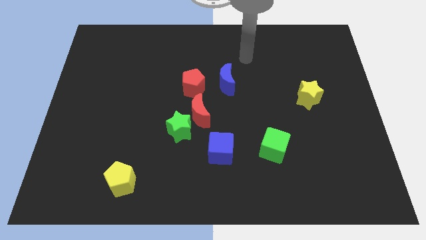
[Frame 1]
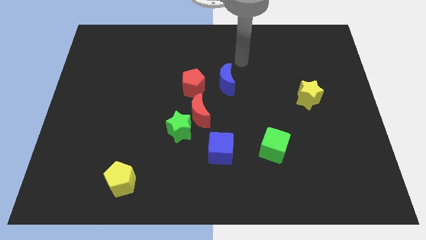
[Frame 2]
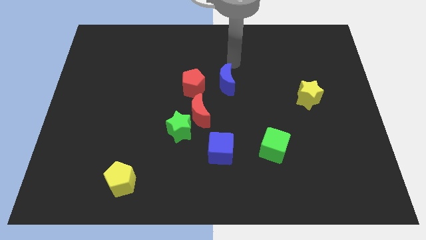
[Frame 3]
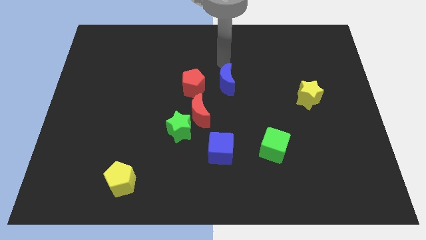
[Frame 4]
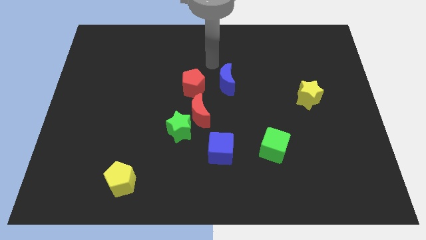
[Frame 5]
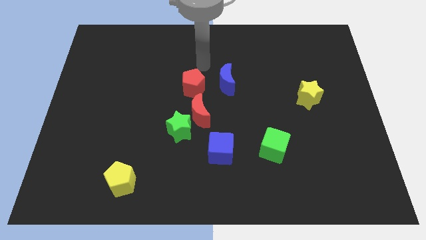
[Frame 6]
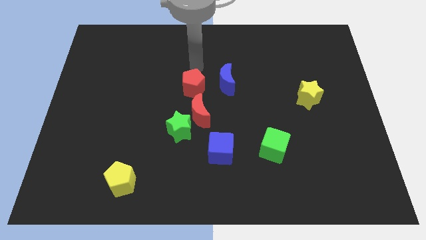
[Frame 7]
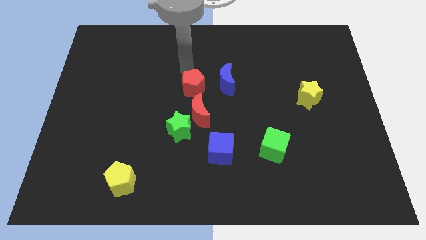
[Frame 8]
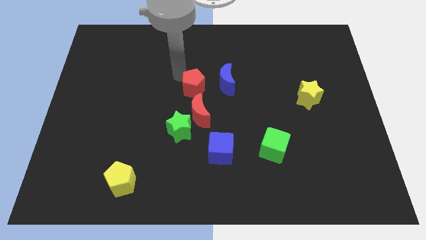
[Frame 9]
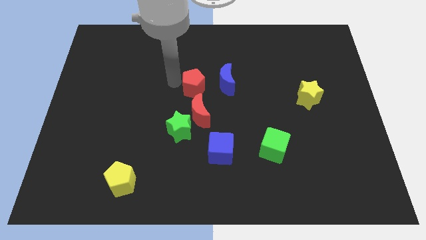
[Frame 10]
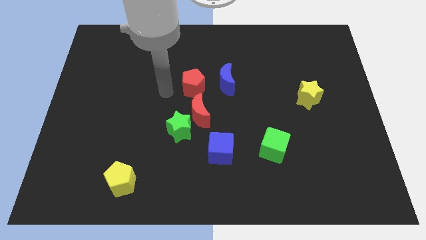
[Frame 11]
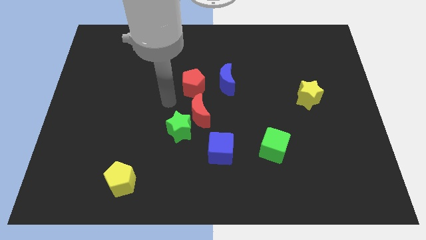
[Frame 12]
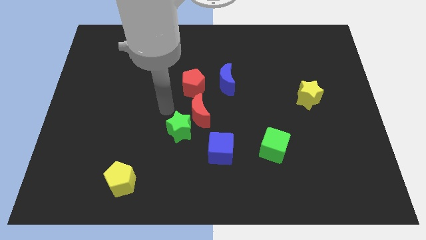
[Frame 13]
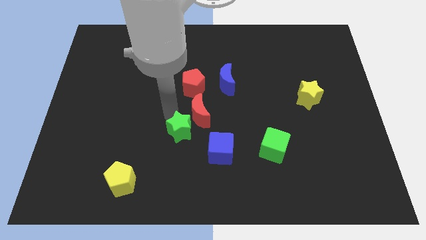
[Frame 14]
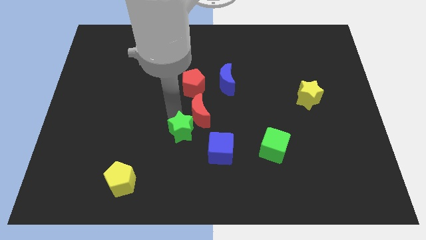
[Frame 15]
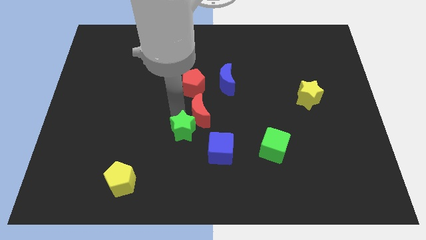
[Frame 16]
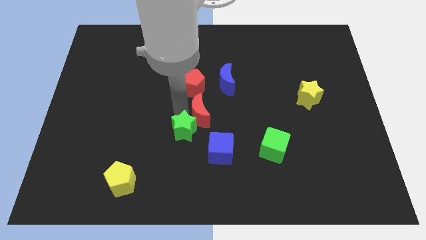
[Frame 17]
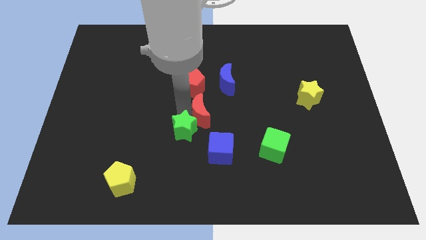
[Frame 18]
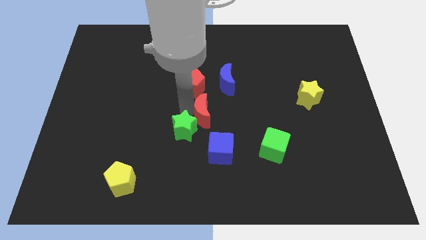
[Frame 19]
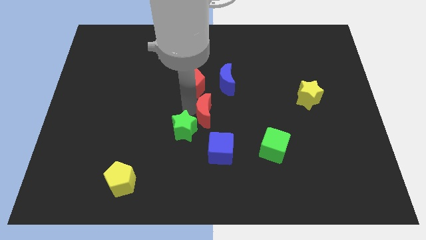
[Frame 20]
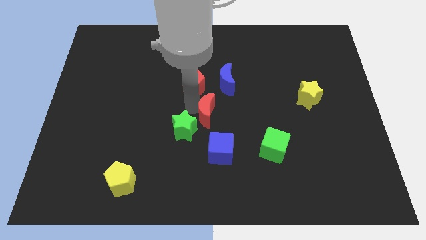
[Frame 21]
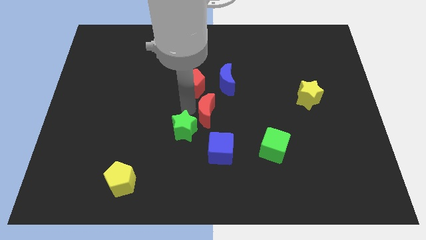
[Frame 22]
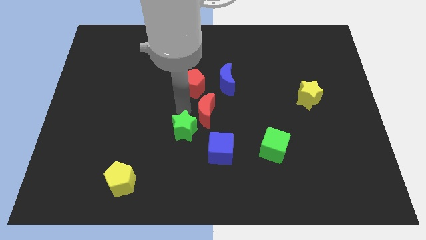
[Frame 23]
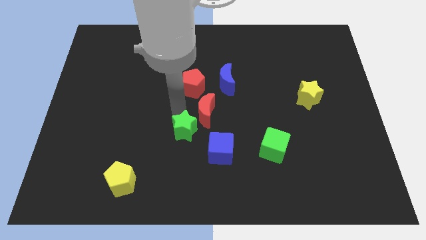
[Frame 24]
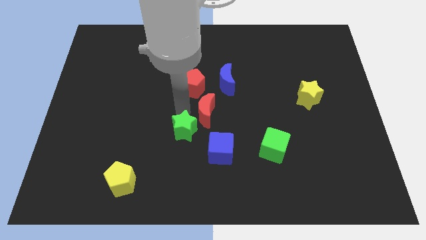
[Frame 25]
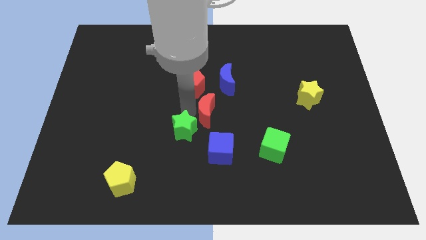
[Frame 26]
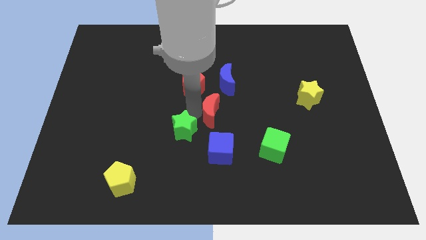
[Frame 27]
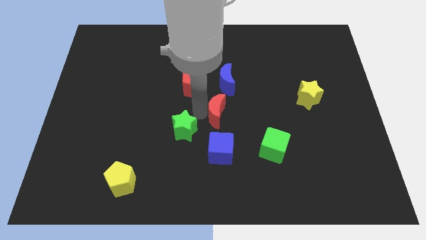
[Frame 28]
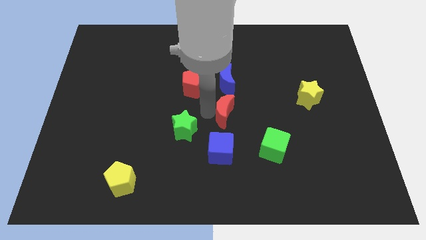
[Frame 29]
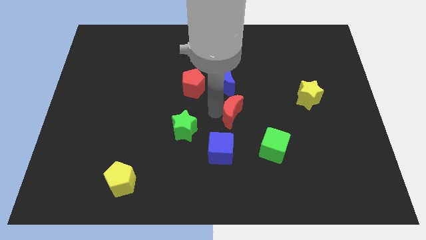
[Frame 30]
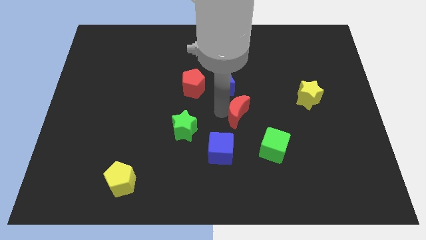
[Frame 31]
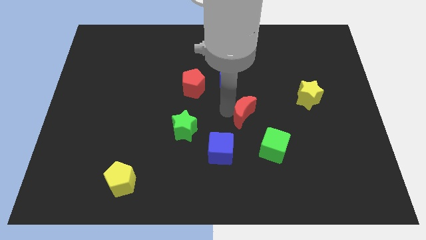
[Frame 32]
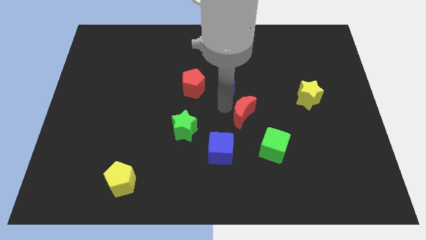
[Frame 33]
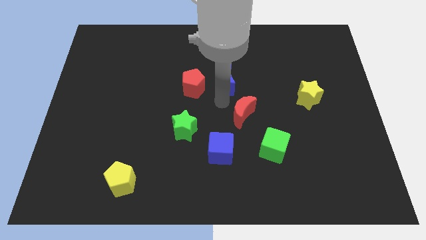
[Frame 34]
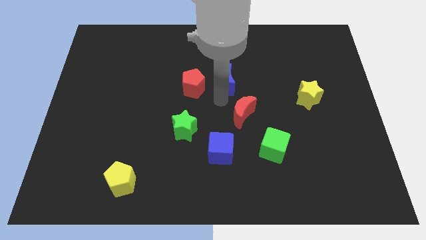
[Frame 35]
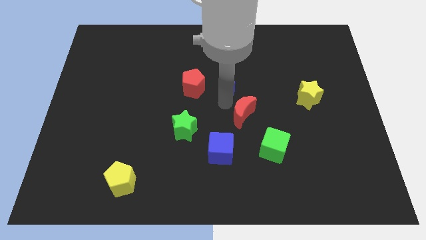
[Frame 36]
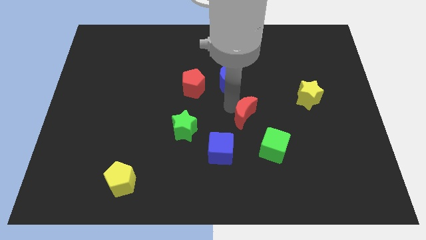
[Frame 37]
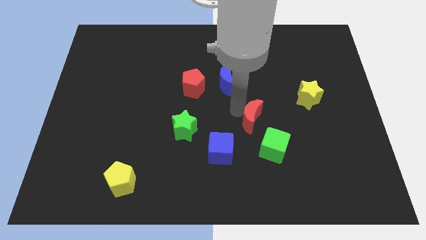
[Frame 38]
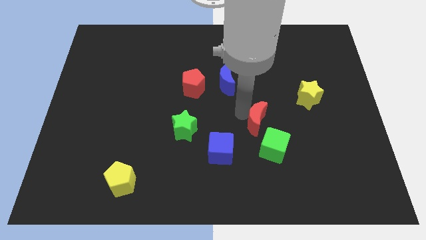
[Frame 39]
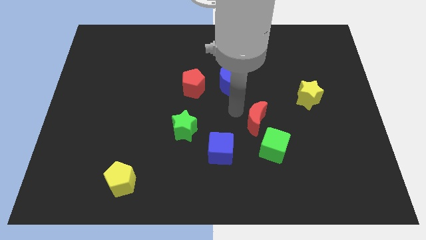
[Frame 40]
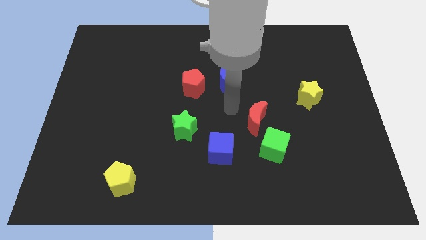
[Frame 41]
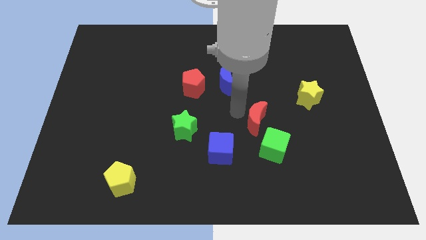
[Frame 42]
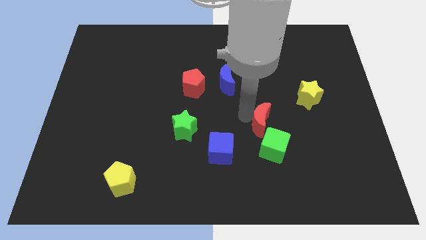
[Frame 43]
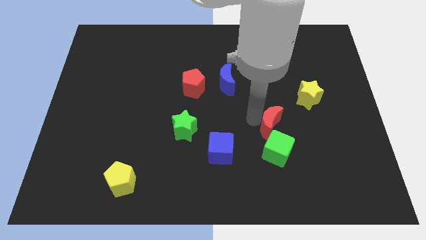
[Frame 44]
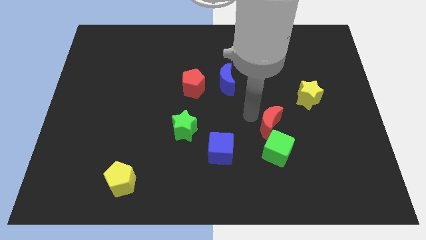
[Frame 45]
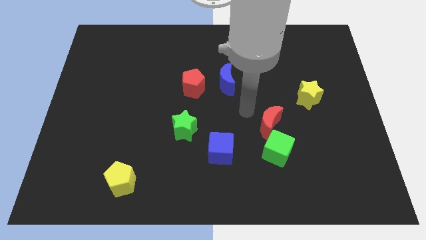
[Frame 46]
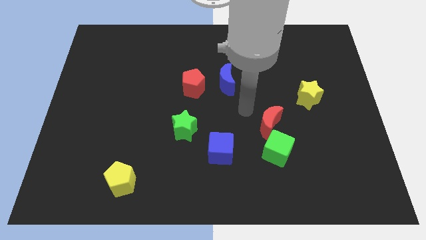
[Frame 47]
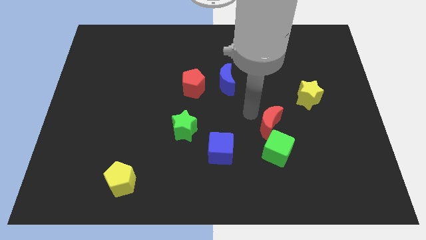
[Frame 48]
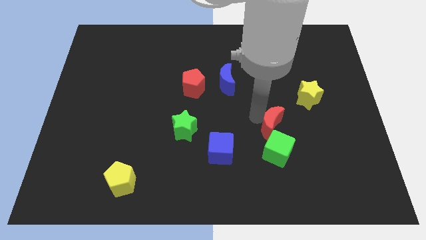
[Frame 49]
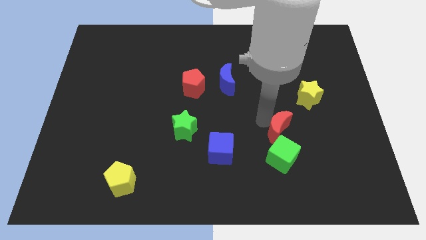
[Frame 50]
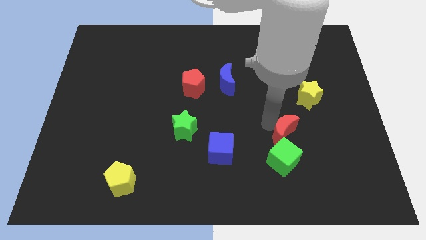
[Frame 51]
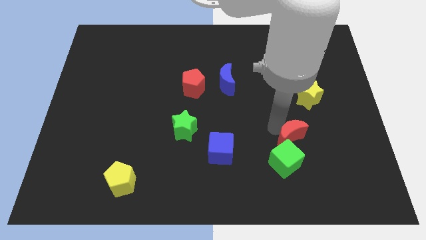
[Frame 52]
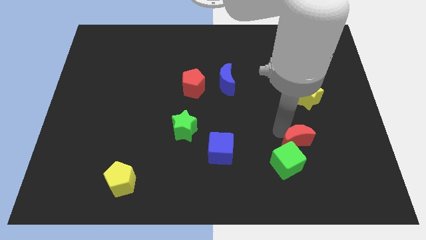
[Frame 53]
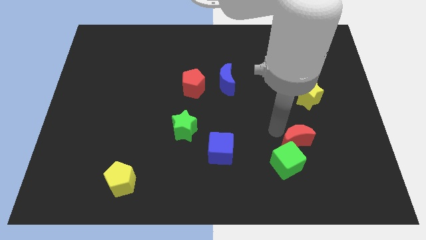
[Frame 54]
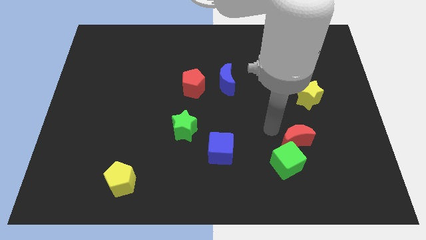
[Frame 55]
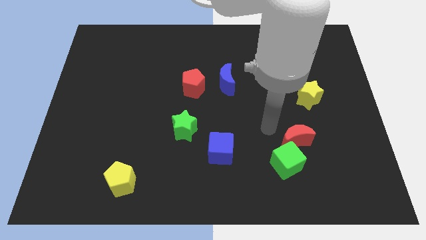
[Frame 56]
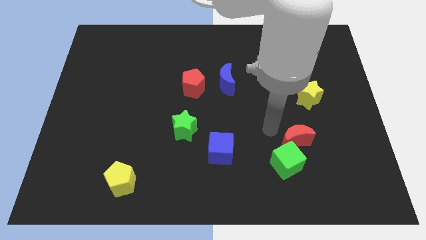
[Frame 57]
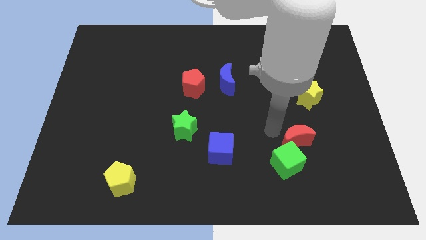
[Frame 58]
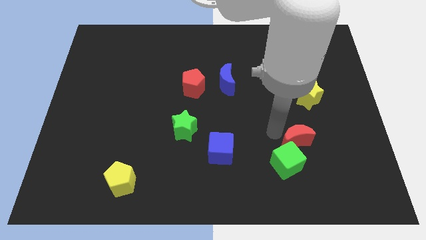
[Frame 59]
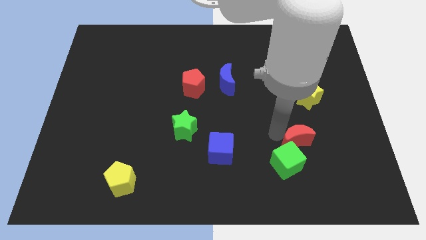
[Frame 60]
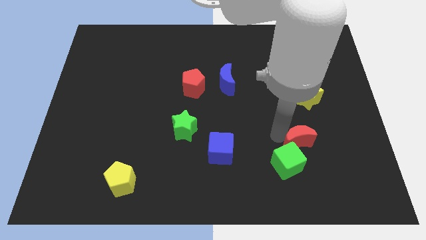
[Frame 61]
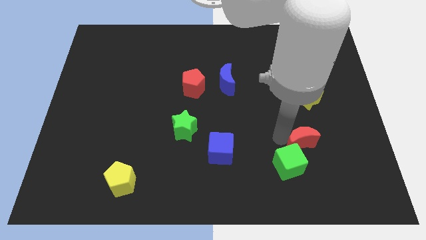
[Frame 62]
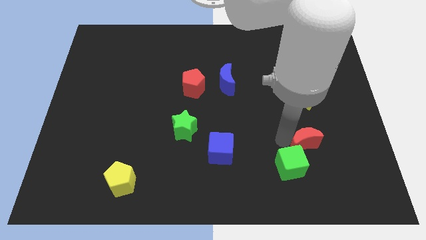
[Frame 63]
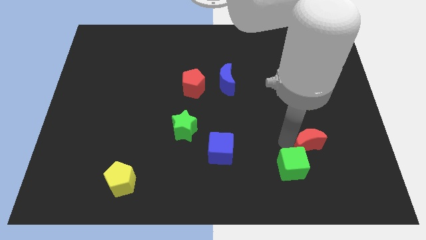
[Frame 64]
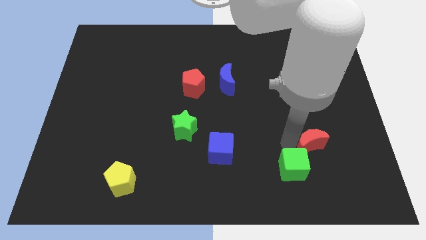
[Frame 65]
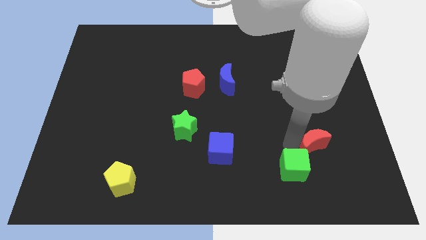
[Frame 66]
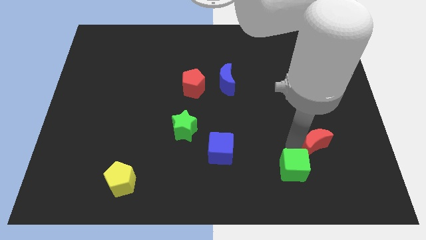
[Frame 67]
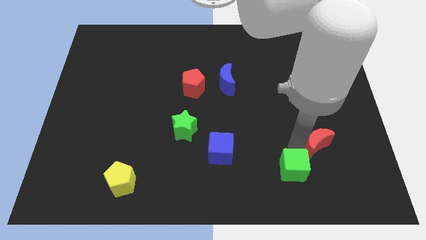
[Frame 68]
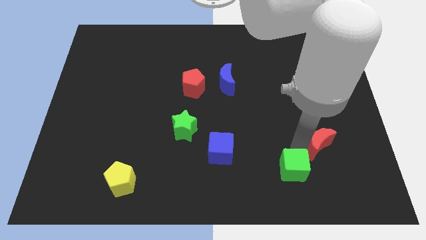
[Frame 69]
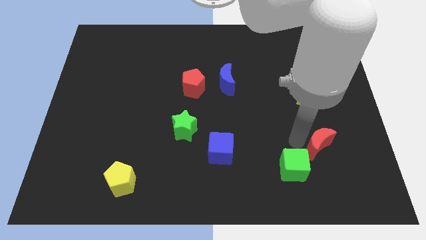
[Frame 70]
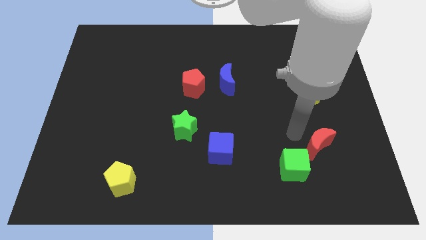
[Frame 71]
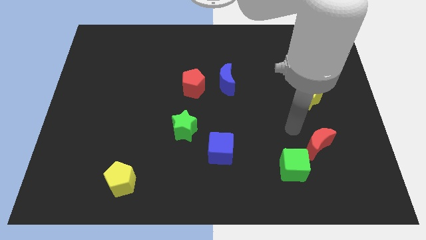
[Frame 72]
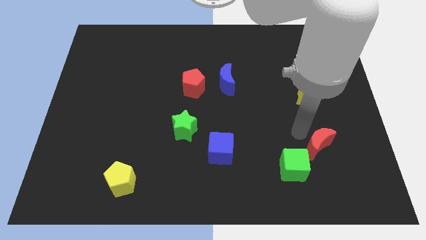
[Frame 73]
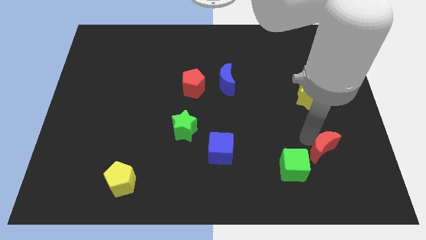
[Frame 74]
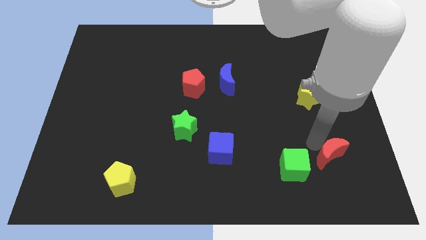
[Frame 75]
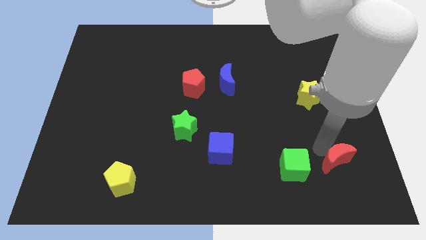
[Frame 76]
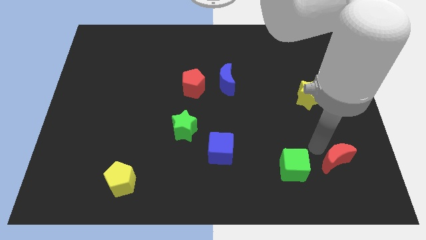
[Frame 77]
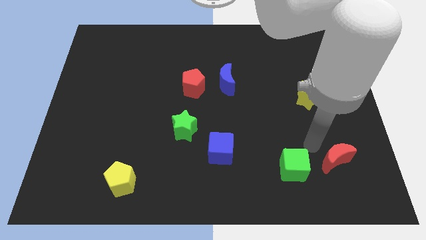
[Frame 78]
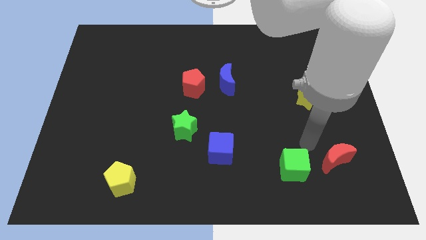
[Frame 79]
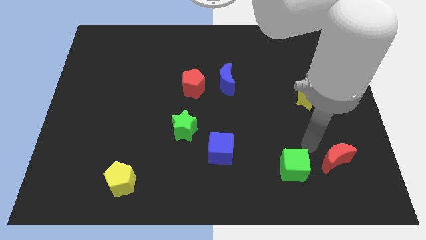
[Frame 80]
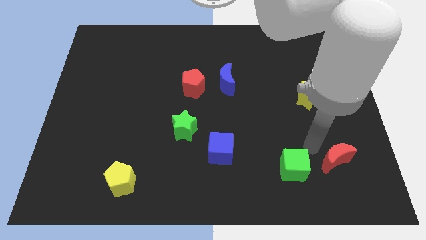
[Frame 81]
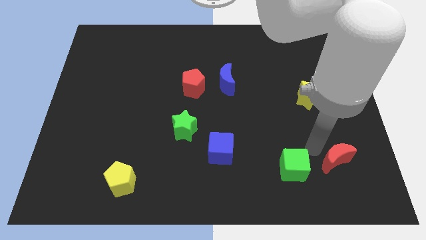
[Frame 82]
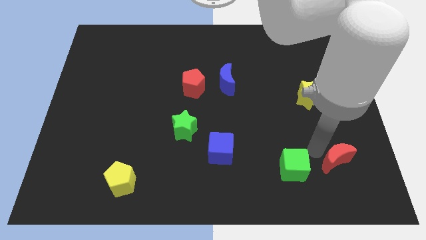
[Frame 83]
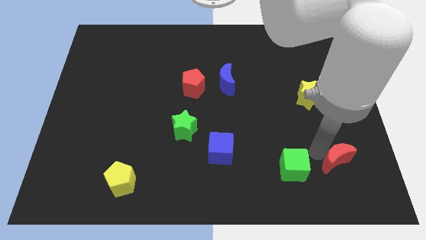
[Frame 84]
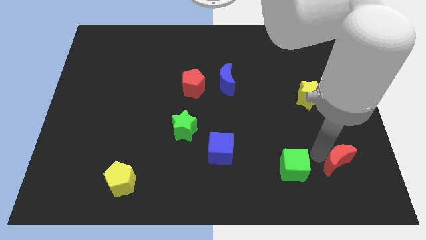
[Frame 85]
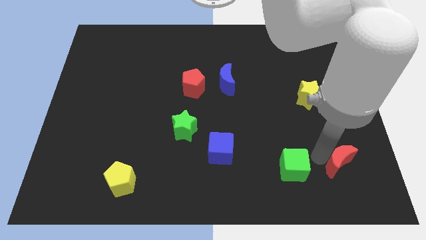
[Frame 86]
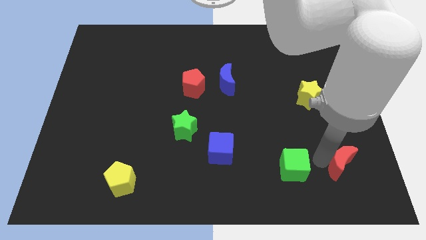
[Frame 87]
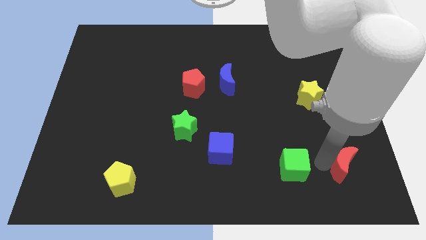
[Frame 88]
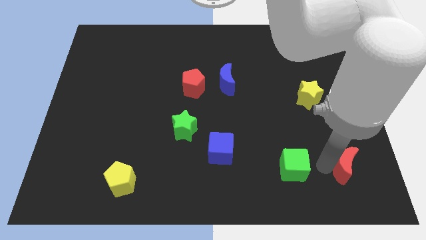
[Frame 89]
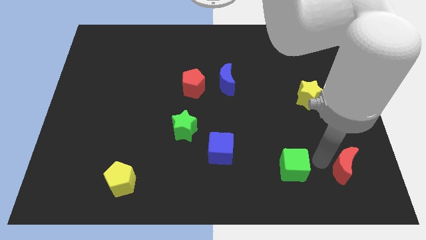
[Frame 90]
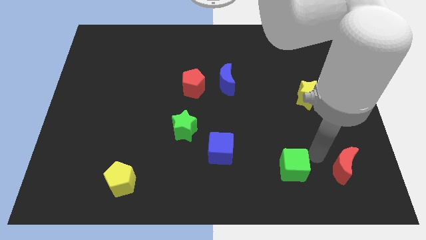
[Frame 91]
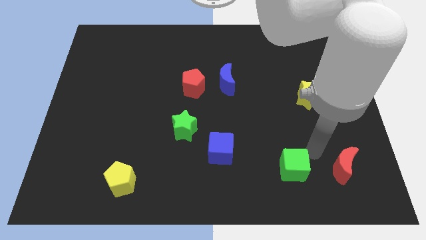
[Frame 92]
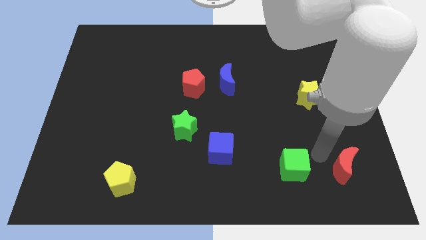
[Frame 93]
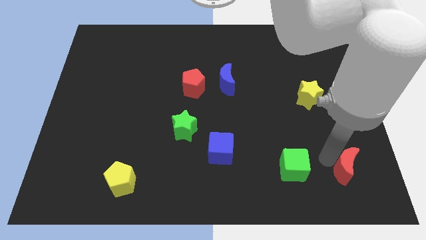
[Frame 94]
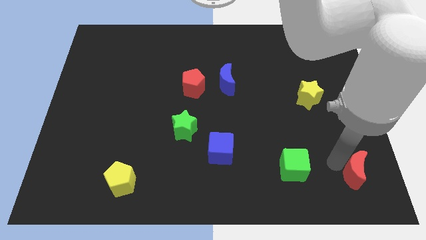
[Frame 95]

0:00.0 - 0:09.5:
put the red moon to the bottom right
